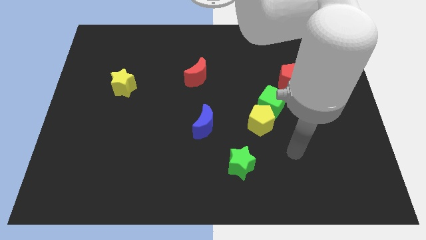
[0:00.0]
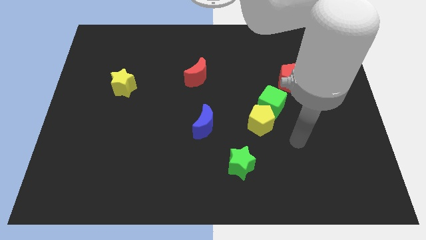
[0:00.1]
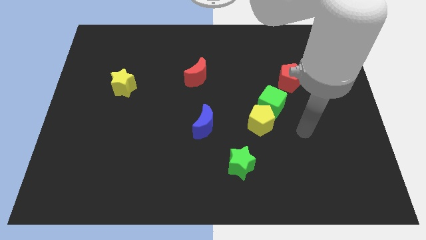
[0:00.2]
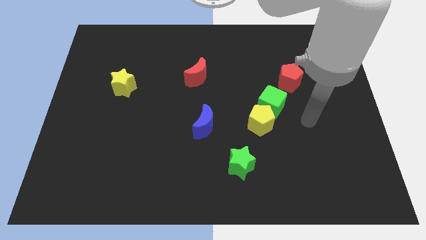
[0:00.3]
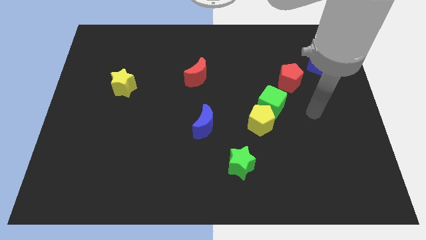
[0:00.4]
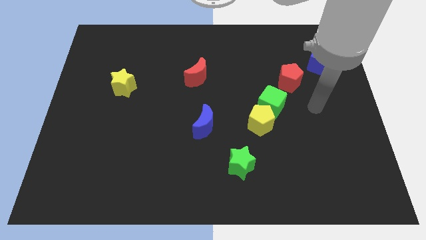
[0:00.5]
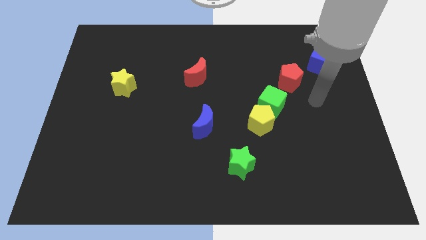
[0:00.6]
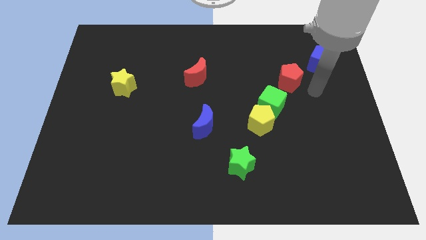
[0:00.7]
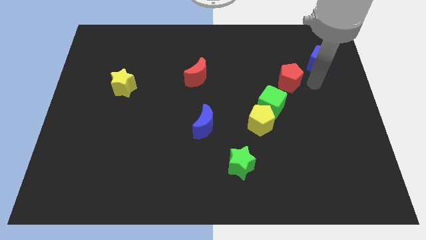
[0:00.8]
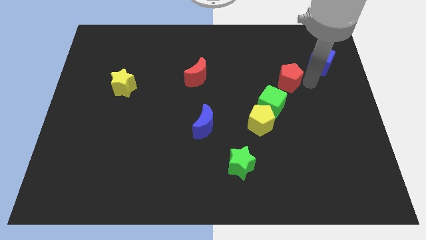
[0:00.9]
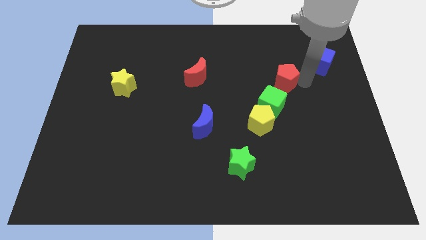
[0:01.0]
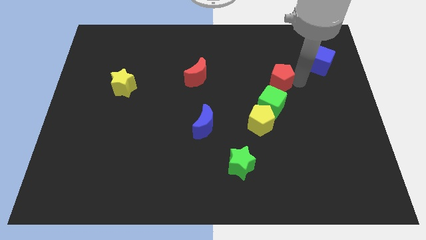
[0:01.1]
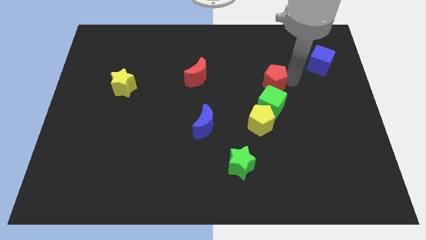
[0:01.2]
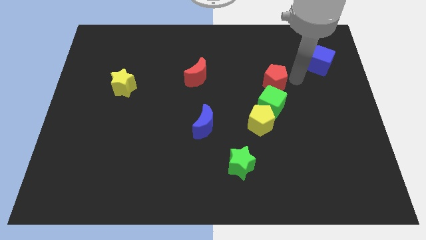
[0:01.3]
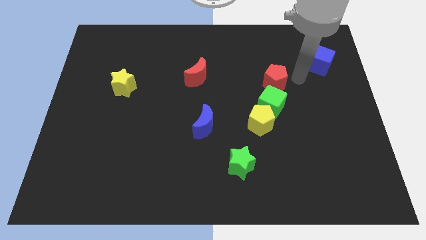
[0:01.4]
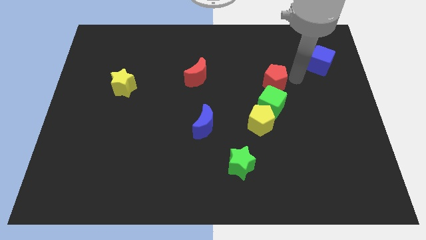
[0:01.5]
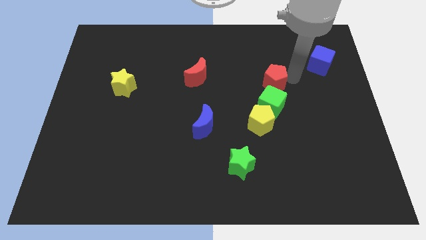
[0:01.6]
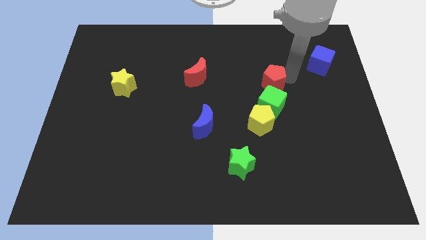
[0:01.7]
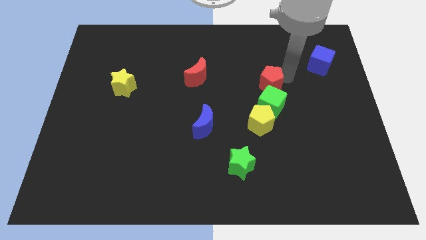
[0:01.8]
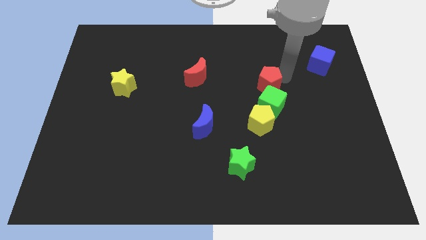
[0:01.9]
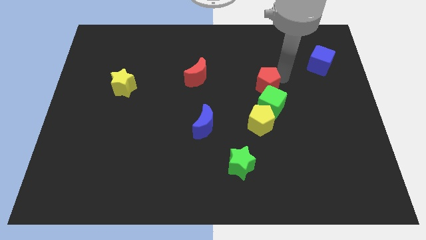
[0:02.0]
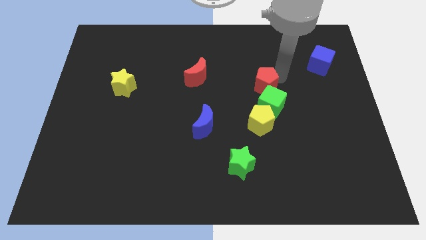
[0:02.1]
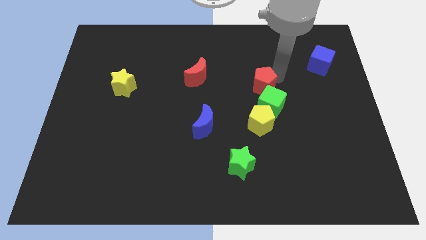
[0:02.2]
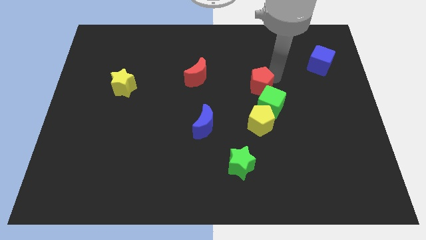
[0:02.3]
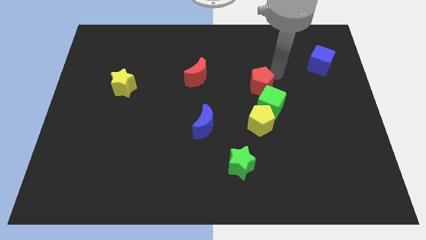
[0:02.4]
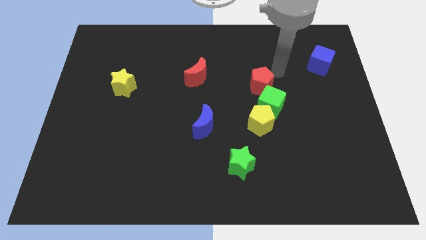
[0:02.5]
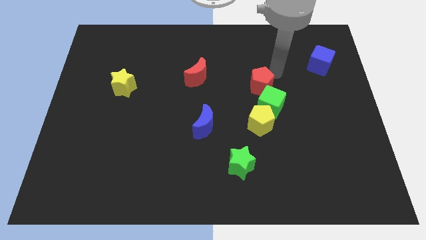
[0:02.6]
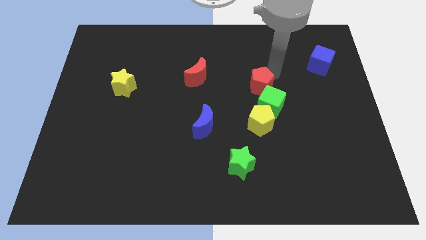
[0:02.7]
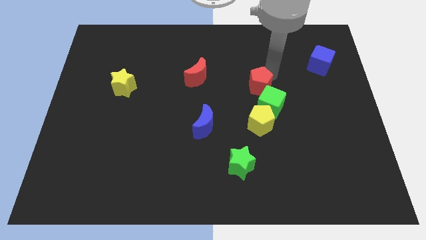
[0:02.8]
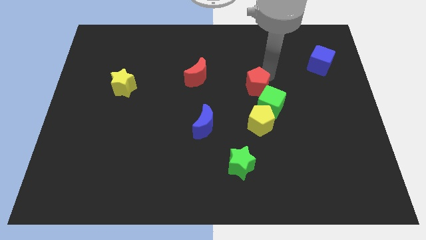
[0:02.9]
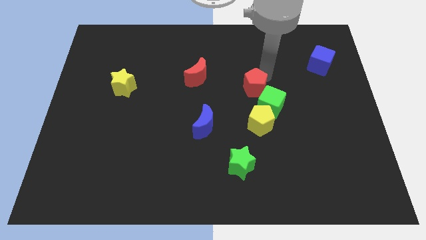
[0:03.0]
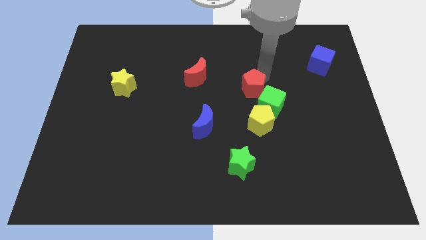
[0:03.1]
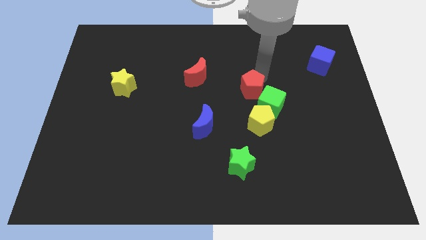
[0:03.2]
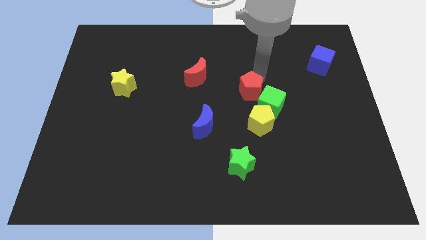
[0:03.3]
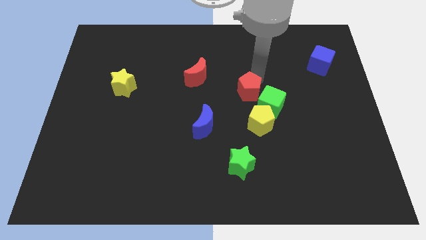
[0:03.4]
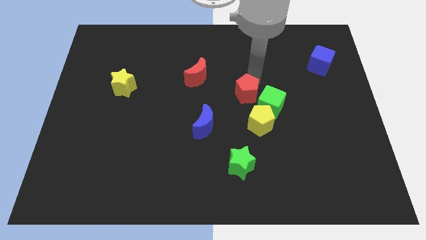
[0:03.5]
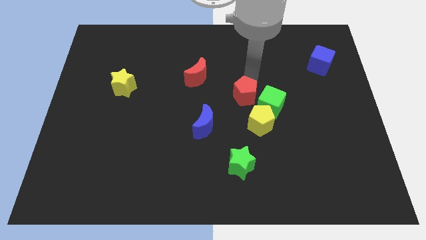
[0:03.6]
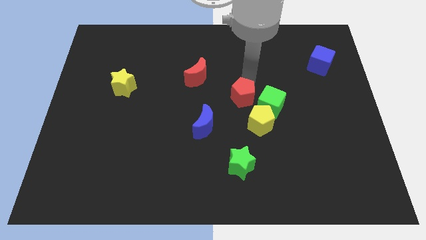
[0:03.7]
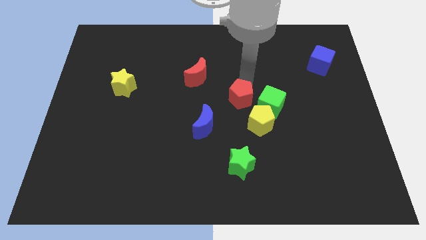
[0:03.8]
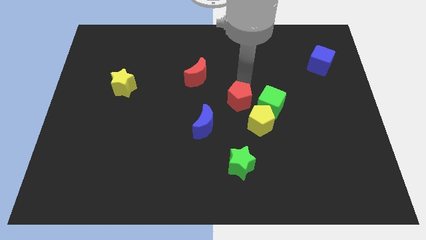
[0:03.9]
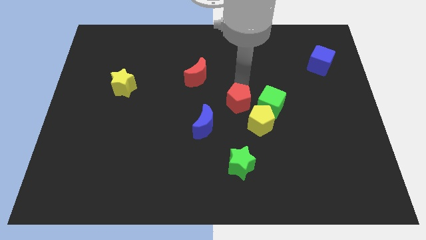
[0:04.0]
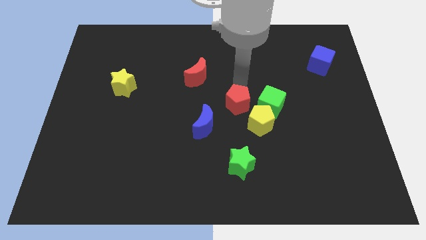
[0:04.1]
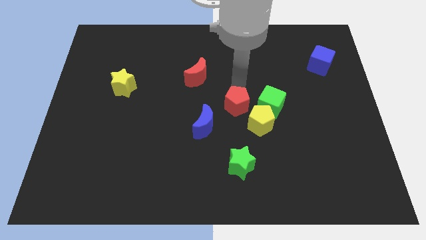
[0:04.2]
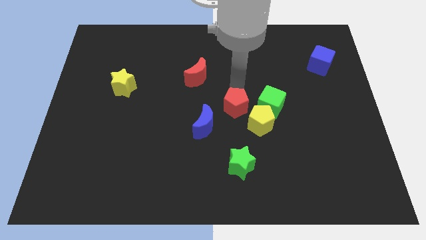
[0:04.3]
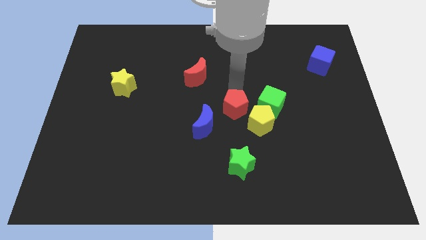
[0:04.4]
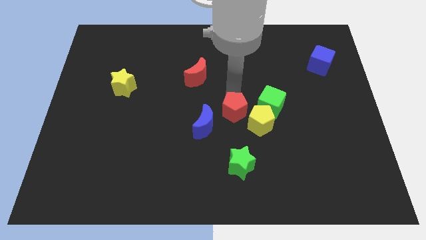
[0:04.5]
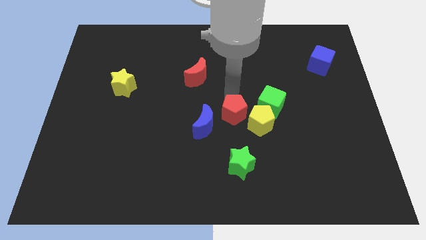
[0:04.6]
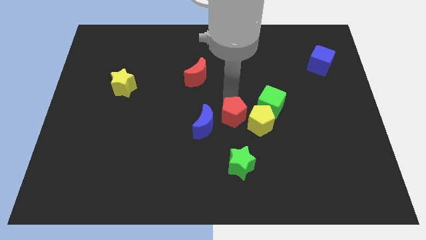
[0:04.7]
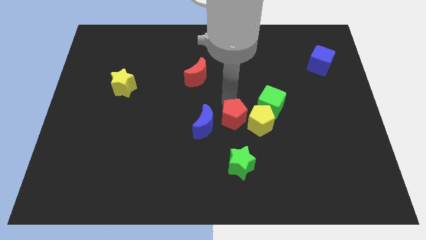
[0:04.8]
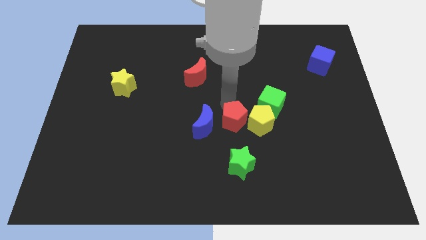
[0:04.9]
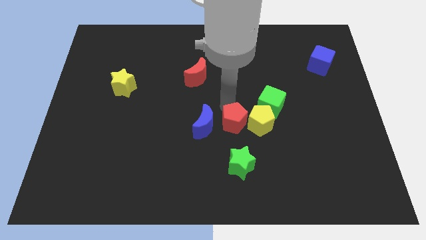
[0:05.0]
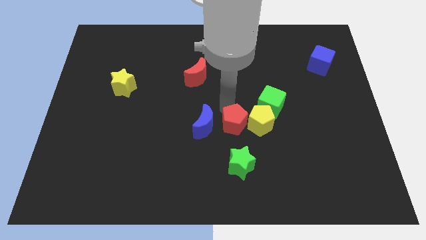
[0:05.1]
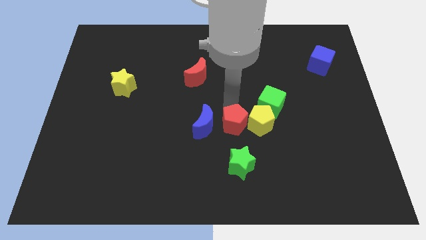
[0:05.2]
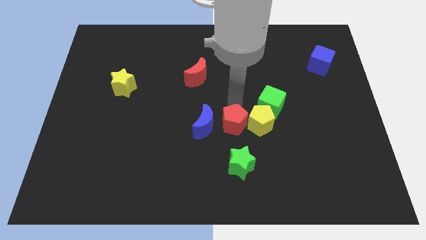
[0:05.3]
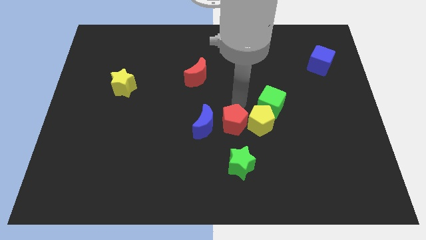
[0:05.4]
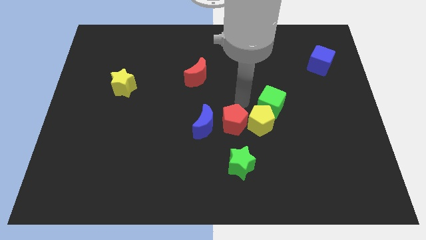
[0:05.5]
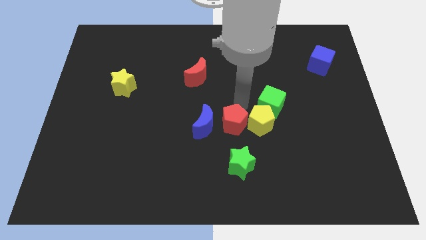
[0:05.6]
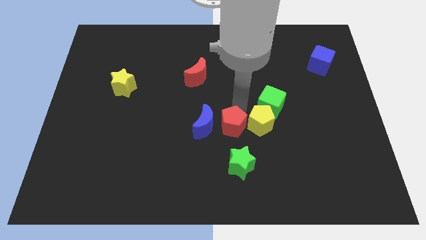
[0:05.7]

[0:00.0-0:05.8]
push the red pentagon diagonally down and to the left

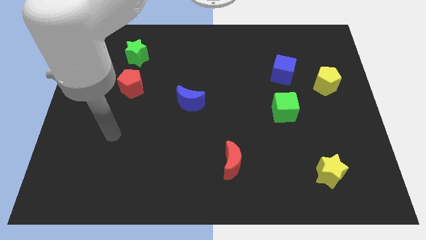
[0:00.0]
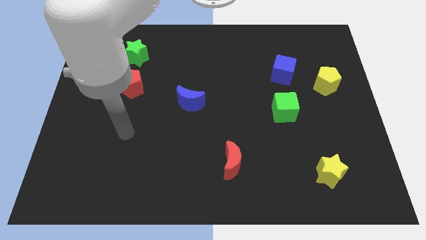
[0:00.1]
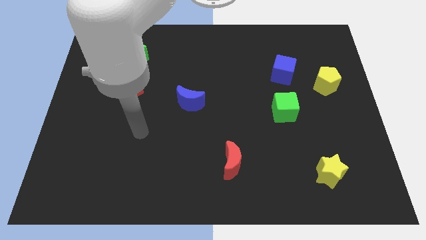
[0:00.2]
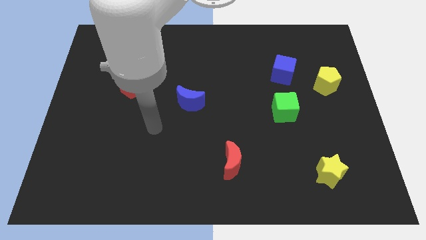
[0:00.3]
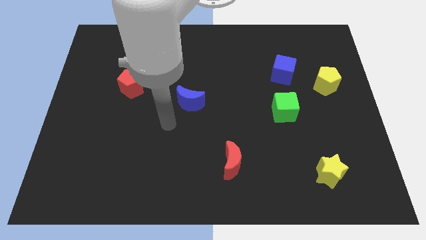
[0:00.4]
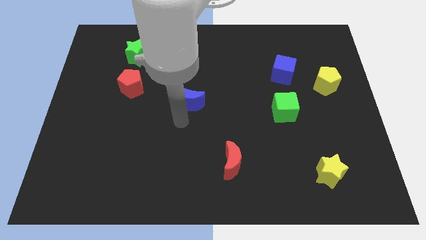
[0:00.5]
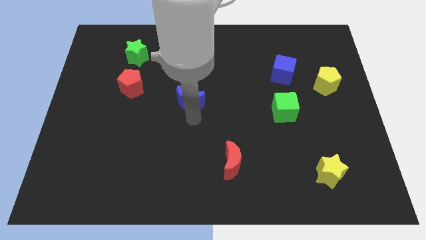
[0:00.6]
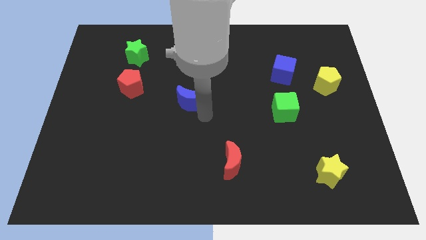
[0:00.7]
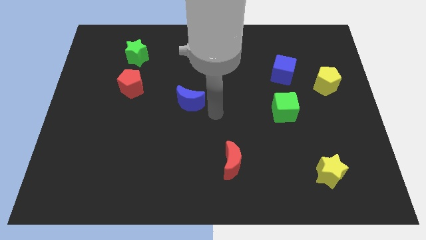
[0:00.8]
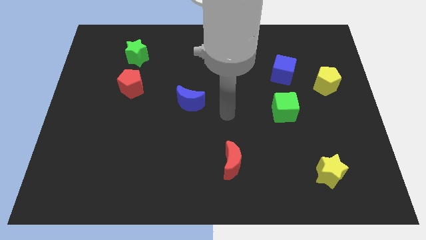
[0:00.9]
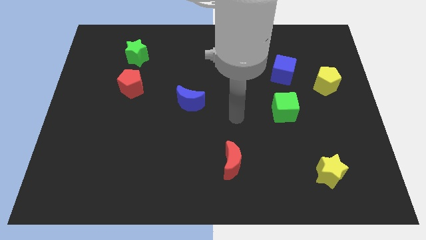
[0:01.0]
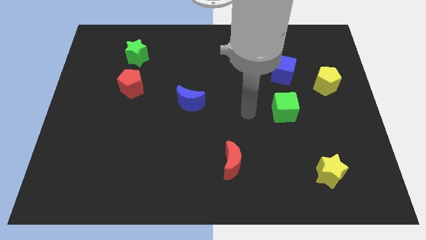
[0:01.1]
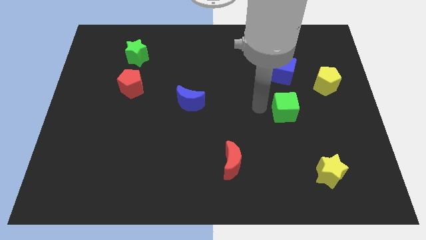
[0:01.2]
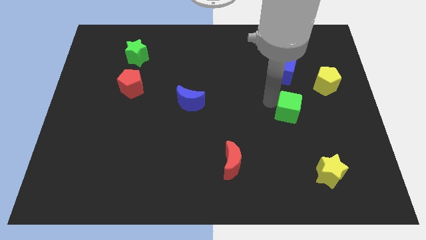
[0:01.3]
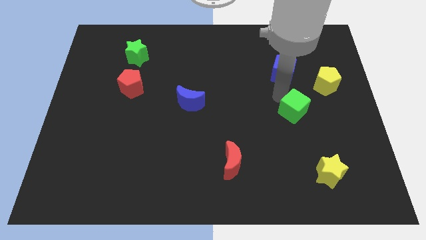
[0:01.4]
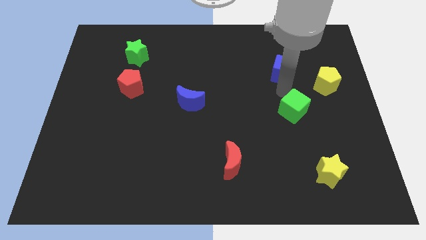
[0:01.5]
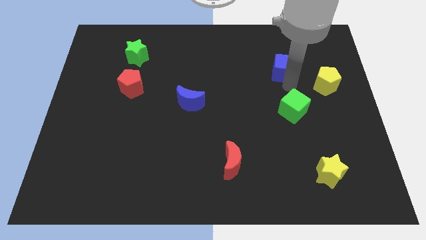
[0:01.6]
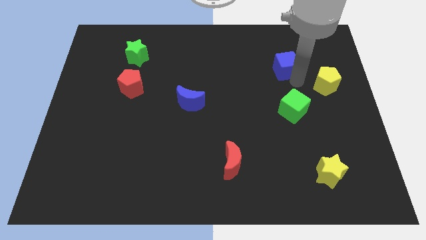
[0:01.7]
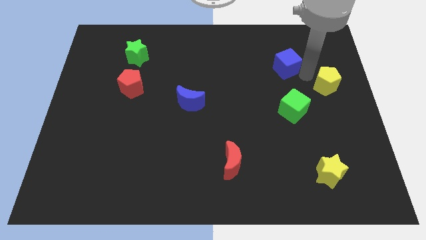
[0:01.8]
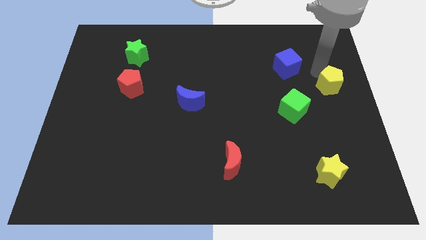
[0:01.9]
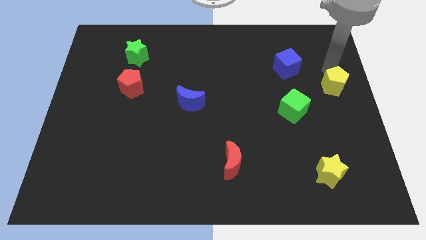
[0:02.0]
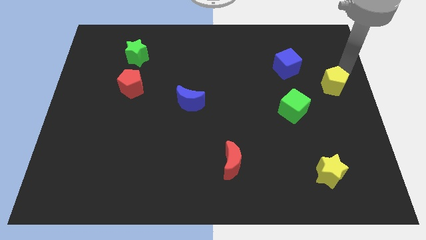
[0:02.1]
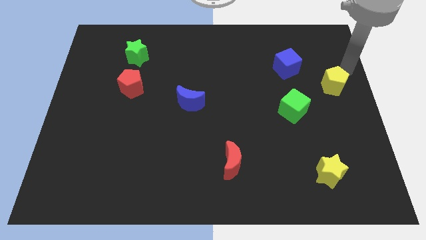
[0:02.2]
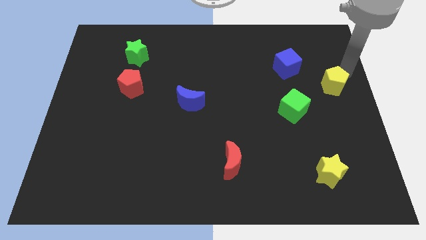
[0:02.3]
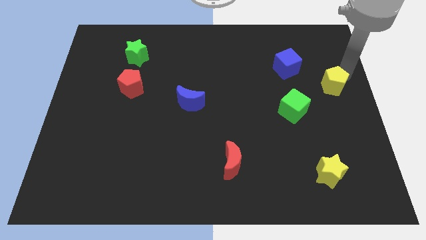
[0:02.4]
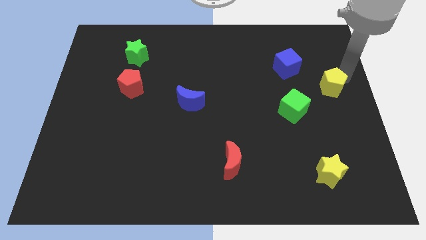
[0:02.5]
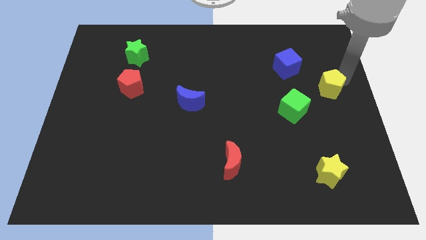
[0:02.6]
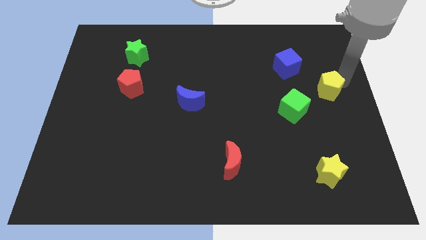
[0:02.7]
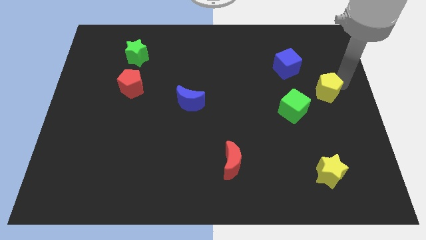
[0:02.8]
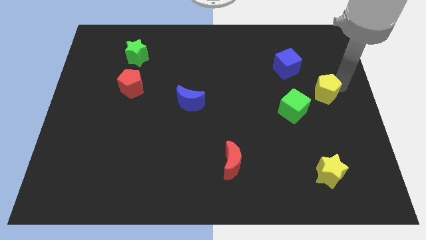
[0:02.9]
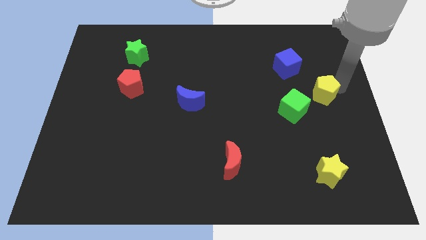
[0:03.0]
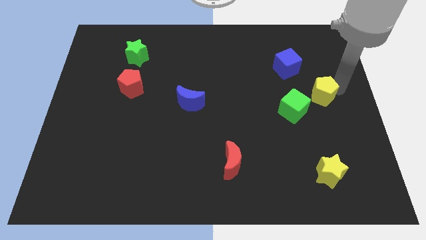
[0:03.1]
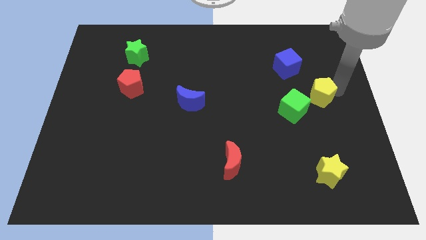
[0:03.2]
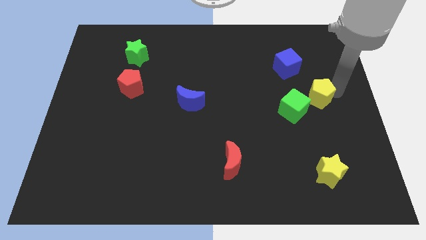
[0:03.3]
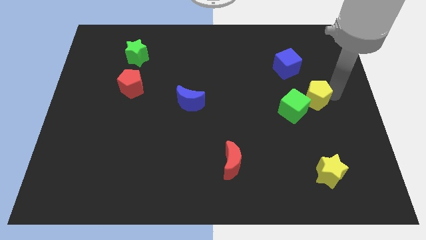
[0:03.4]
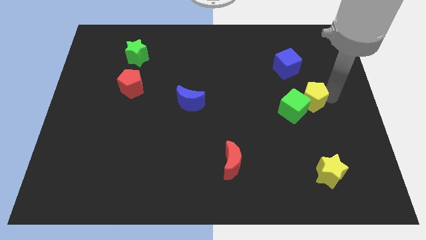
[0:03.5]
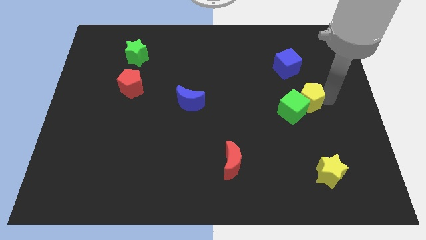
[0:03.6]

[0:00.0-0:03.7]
move the yellow pentagon somewhat downwards and to the left diagonally
